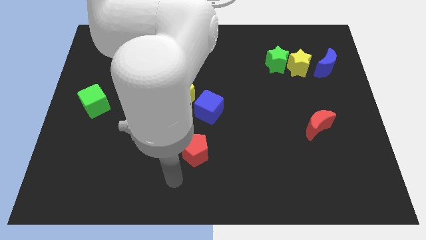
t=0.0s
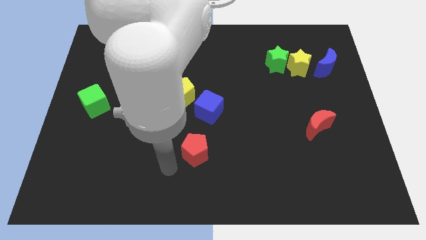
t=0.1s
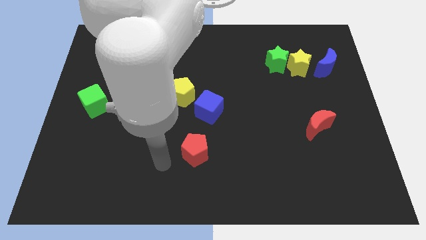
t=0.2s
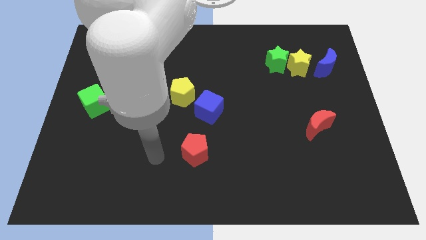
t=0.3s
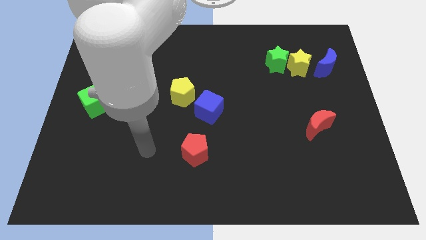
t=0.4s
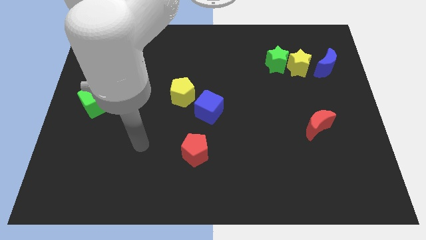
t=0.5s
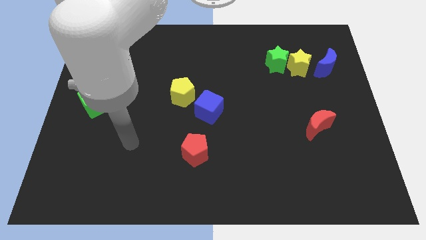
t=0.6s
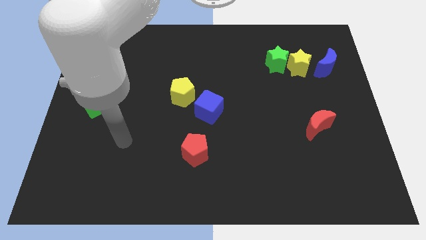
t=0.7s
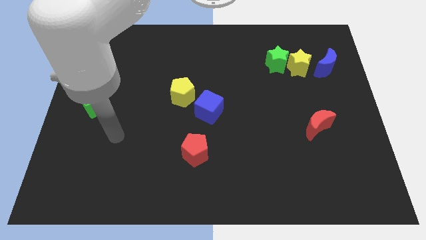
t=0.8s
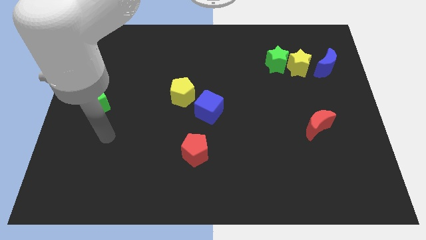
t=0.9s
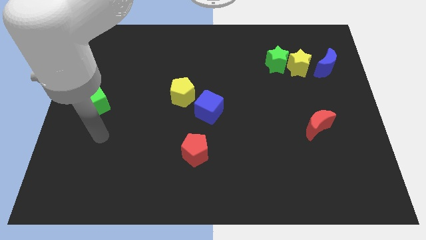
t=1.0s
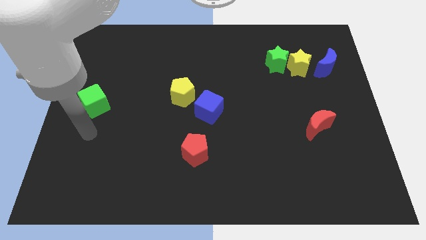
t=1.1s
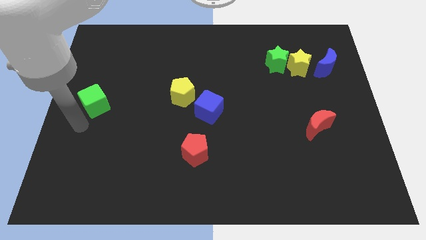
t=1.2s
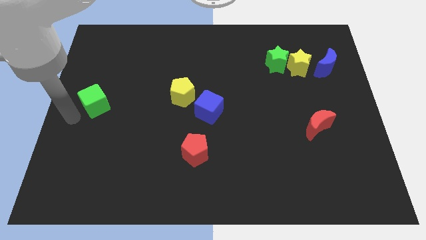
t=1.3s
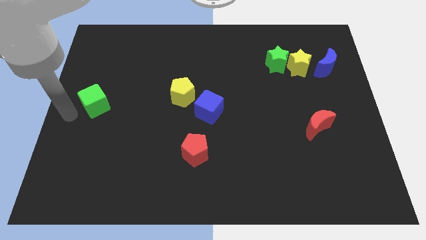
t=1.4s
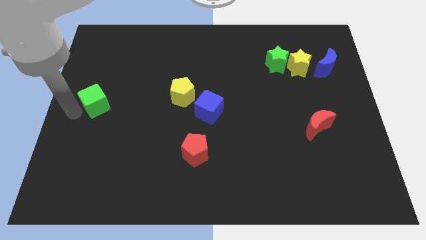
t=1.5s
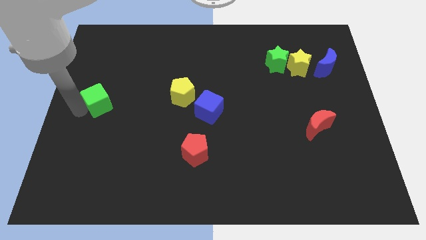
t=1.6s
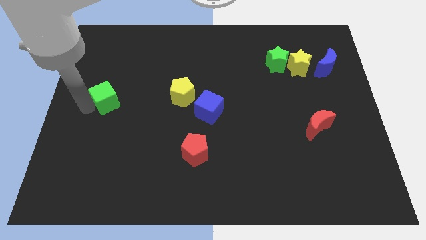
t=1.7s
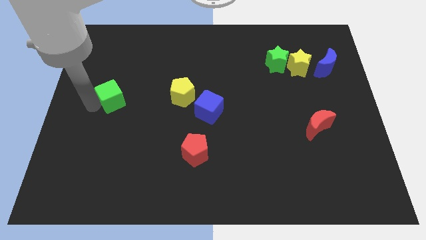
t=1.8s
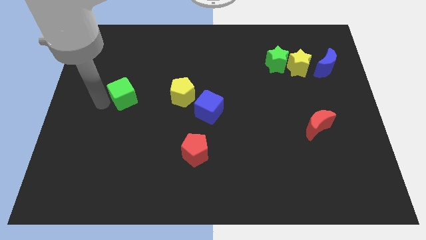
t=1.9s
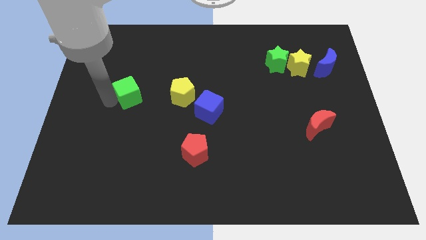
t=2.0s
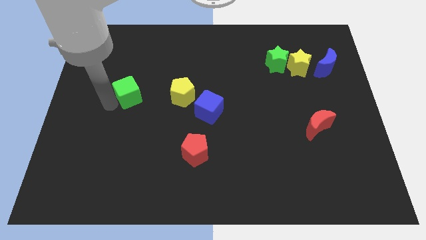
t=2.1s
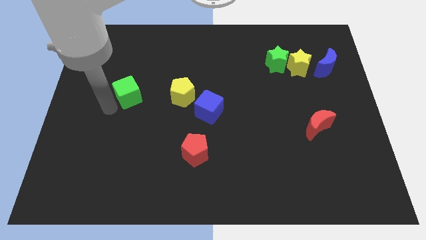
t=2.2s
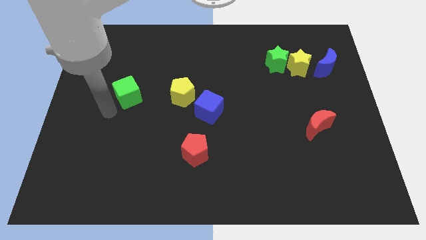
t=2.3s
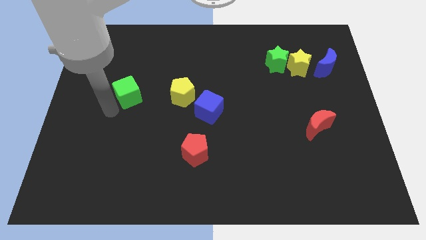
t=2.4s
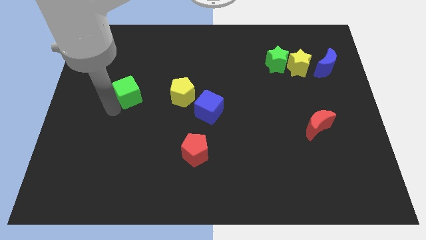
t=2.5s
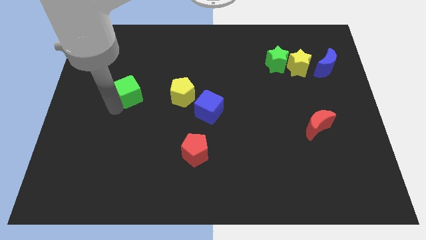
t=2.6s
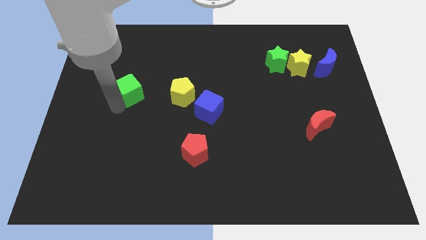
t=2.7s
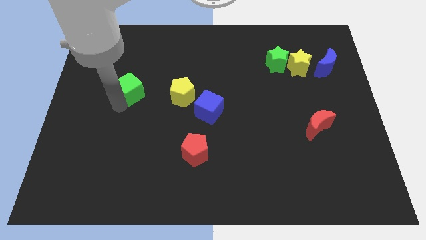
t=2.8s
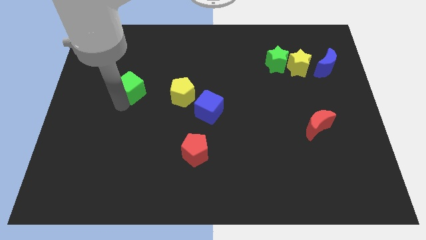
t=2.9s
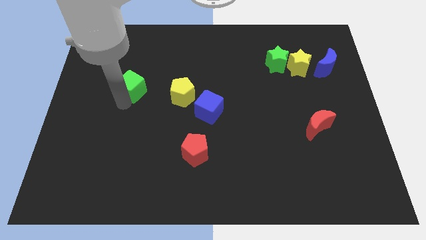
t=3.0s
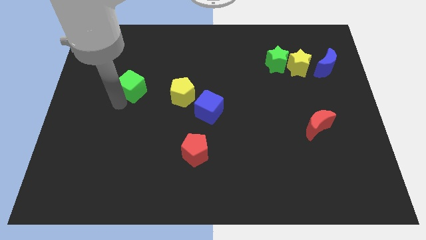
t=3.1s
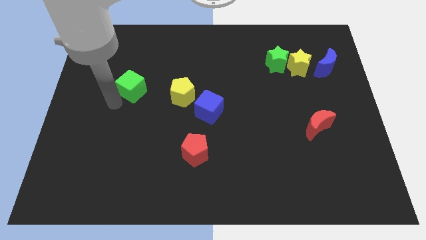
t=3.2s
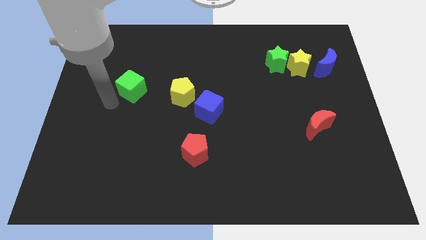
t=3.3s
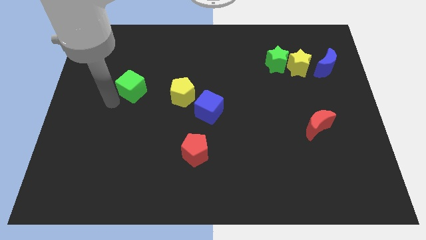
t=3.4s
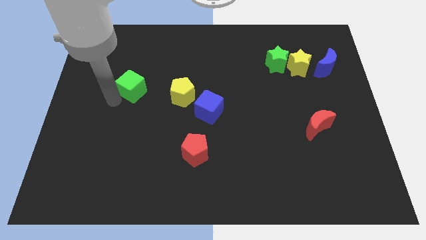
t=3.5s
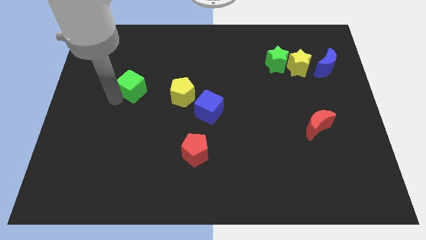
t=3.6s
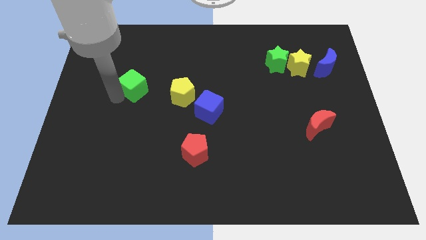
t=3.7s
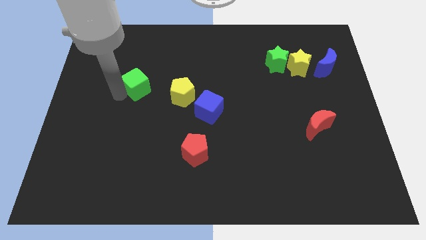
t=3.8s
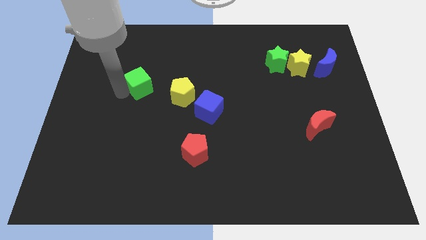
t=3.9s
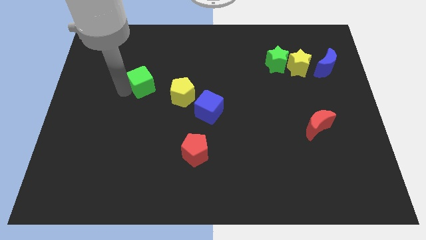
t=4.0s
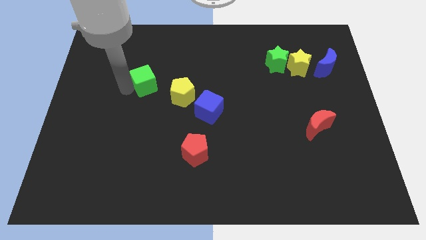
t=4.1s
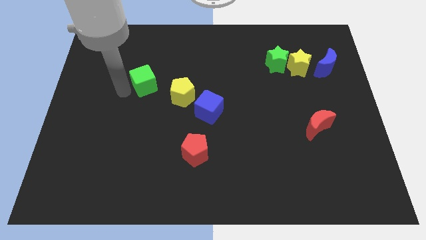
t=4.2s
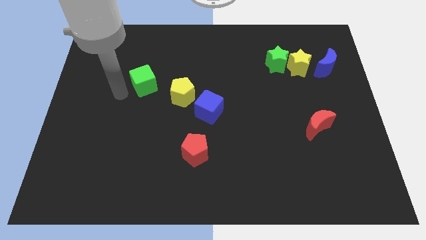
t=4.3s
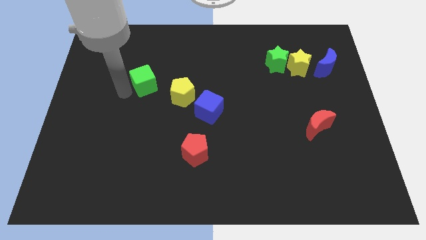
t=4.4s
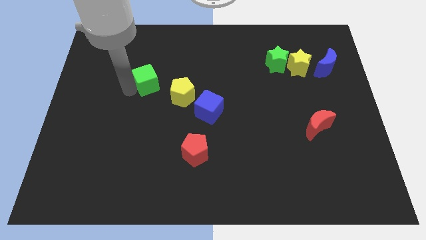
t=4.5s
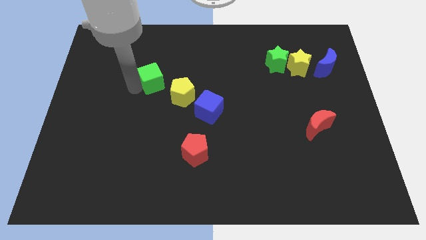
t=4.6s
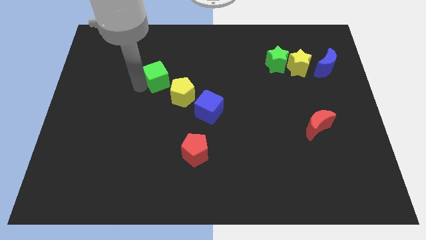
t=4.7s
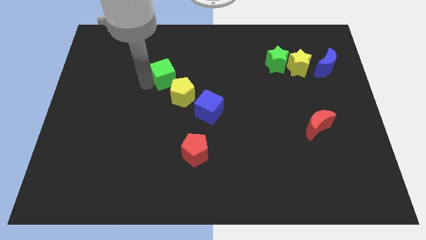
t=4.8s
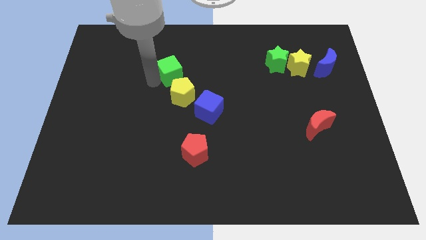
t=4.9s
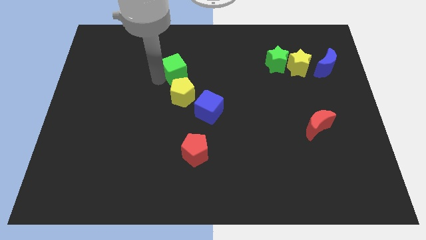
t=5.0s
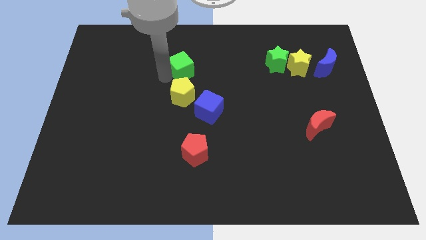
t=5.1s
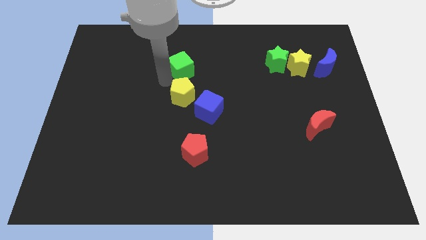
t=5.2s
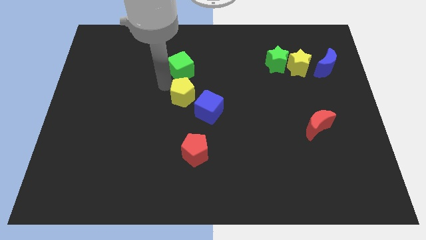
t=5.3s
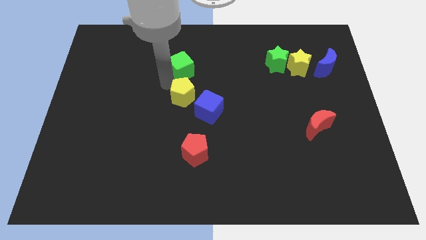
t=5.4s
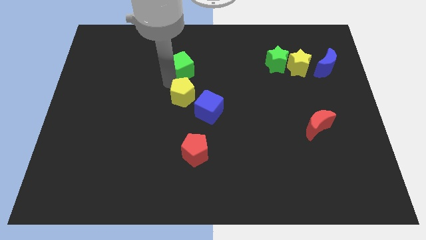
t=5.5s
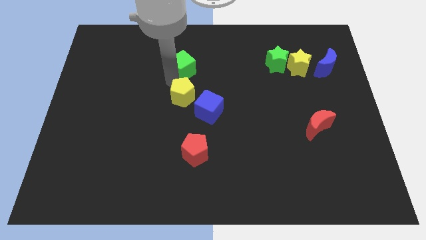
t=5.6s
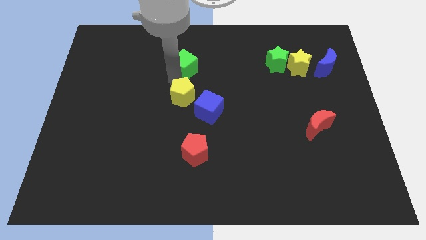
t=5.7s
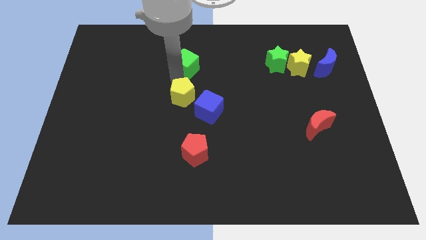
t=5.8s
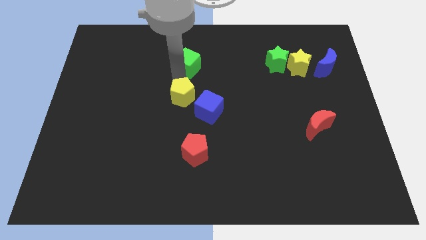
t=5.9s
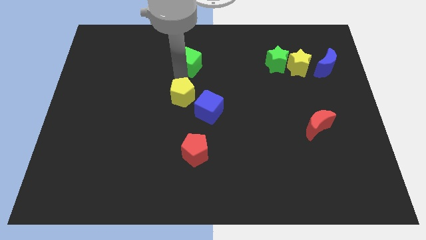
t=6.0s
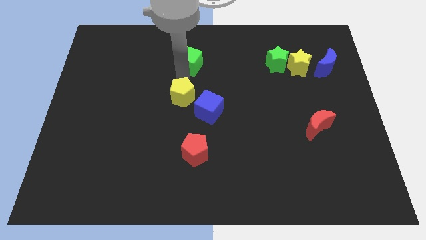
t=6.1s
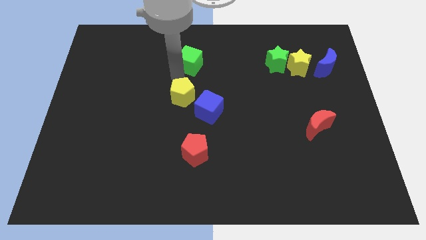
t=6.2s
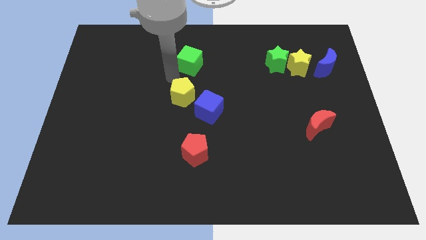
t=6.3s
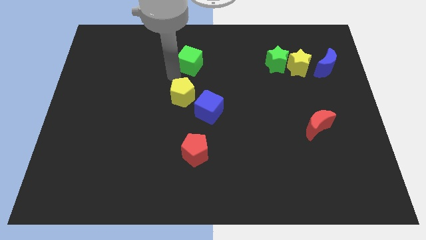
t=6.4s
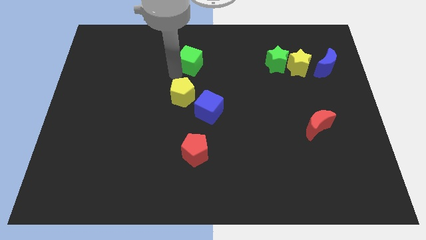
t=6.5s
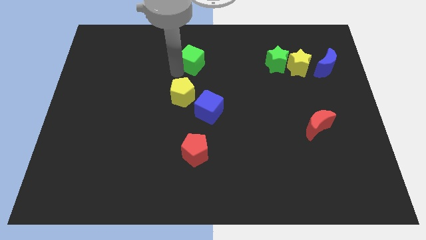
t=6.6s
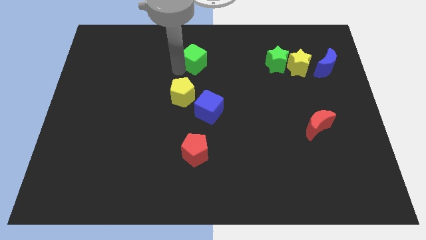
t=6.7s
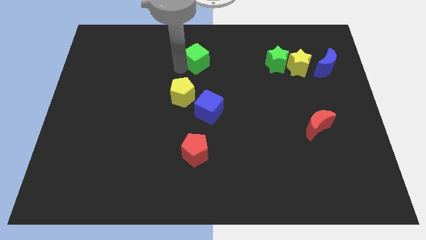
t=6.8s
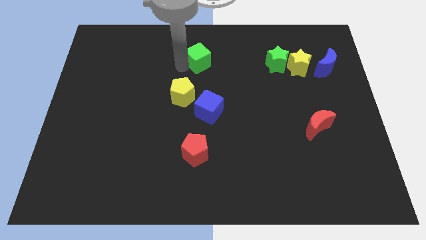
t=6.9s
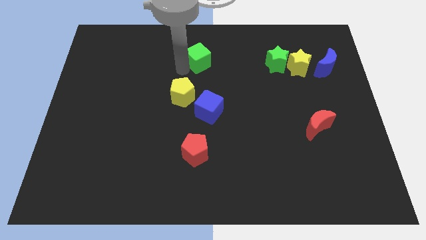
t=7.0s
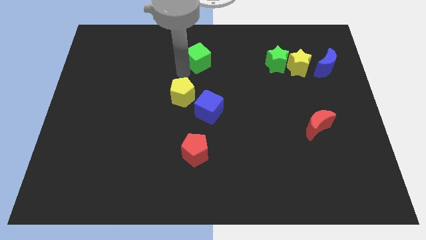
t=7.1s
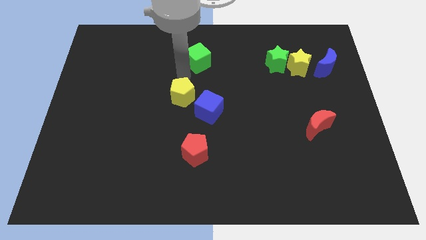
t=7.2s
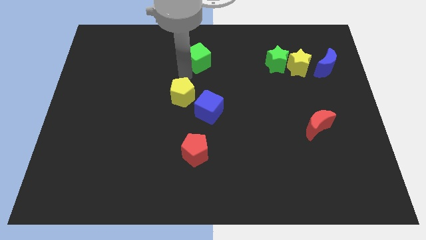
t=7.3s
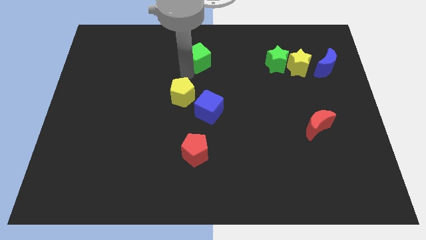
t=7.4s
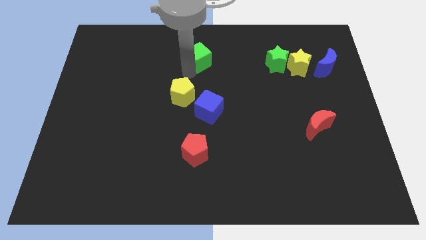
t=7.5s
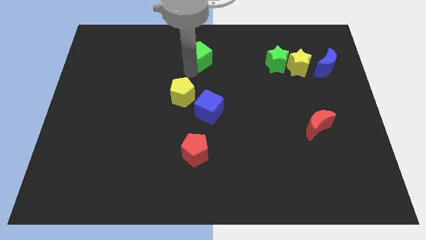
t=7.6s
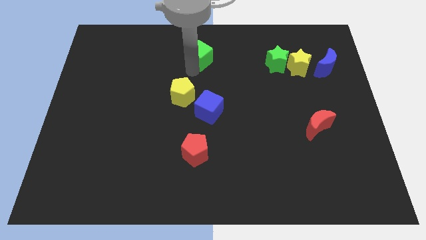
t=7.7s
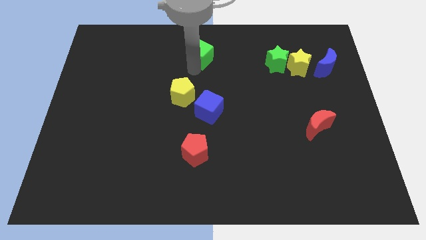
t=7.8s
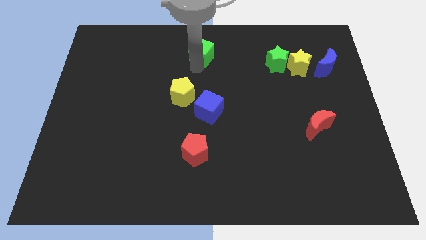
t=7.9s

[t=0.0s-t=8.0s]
push the green cube to the towards your base
